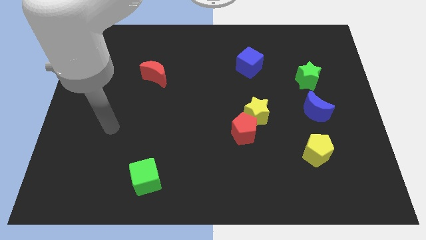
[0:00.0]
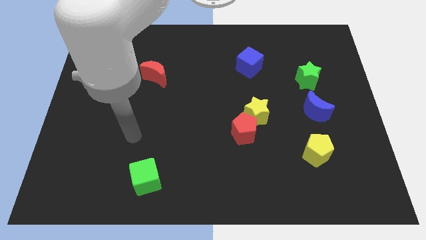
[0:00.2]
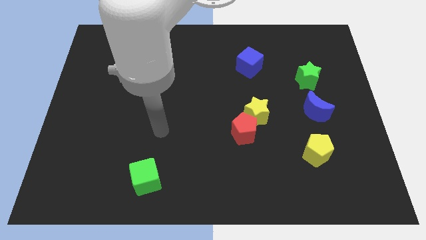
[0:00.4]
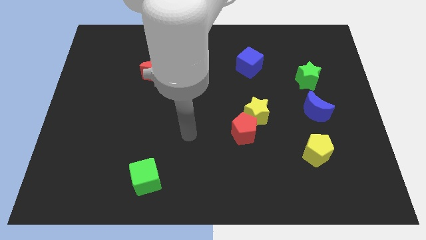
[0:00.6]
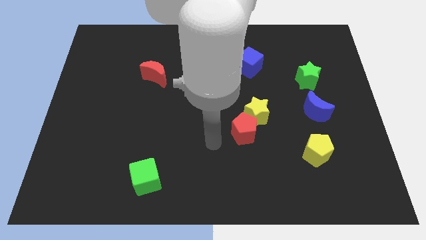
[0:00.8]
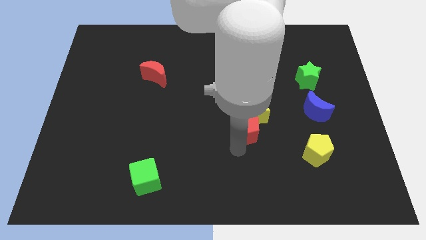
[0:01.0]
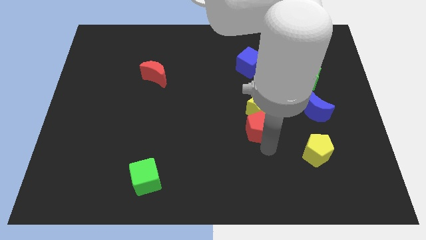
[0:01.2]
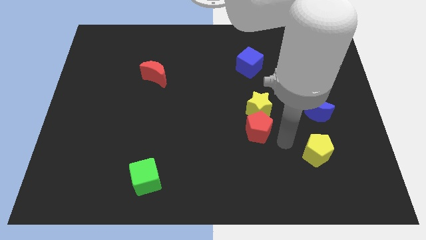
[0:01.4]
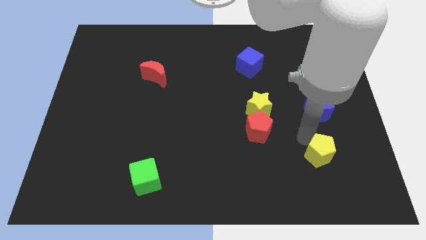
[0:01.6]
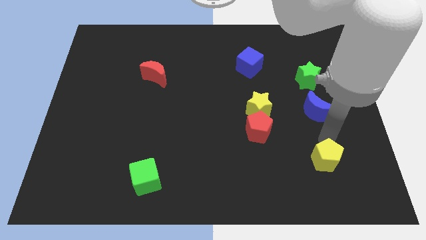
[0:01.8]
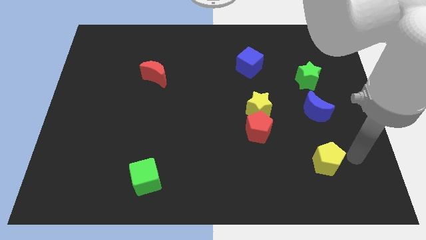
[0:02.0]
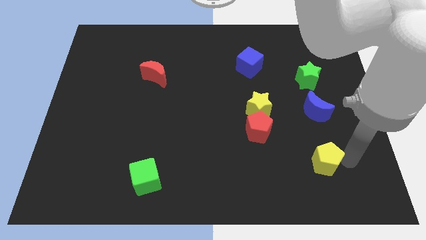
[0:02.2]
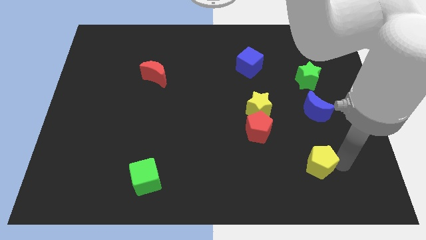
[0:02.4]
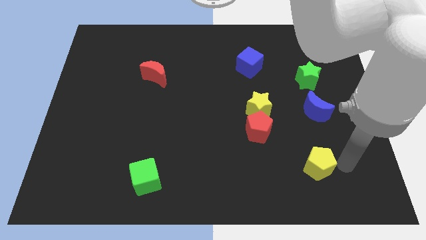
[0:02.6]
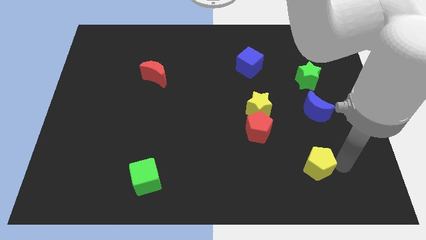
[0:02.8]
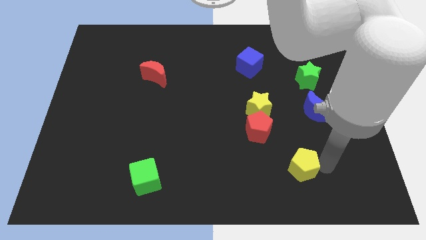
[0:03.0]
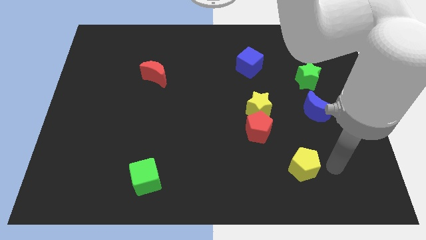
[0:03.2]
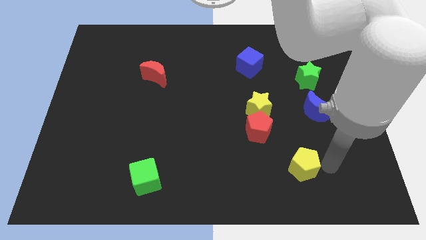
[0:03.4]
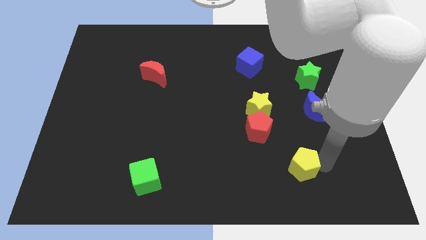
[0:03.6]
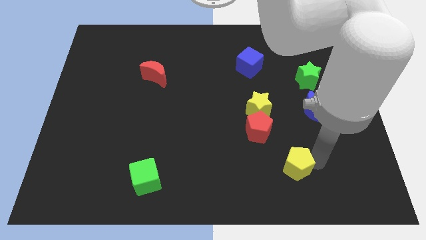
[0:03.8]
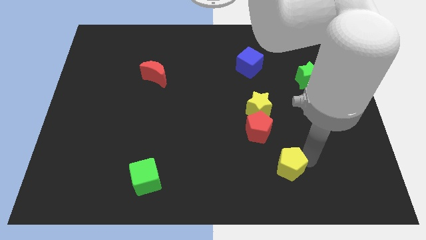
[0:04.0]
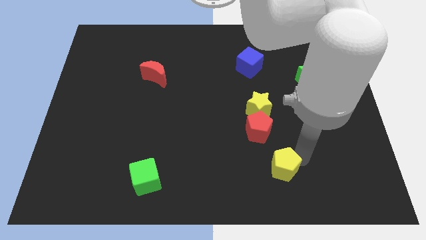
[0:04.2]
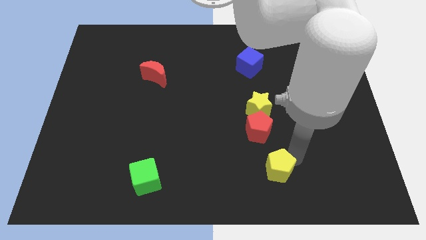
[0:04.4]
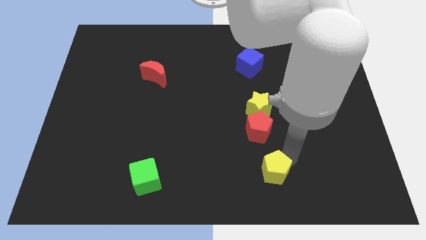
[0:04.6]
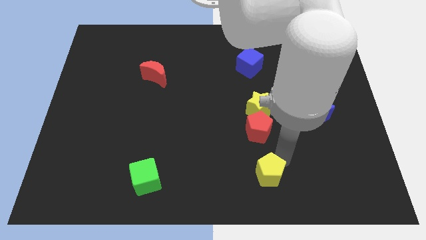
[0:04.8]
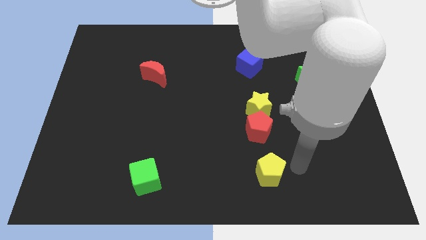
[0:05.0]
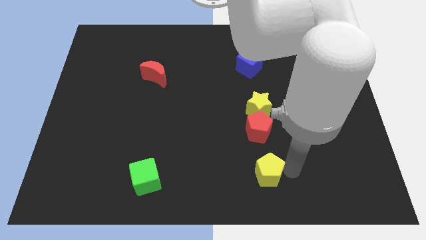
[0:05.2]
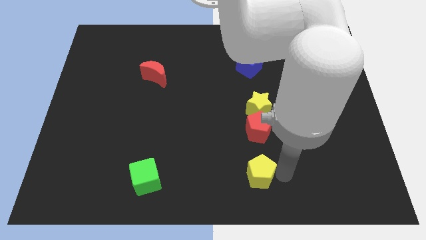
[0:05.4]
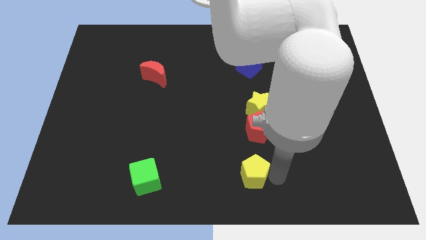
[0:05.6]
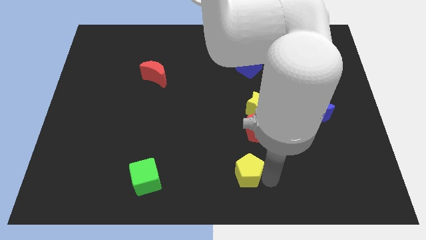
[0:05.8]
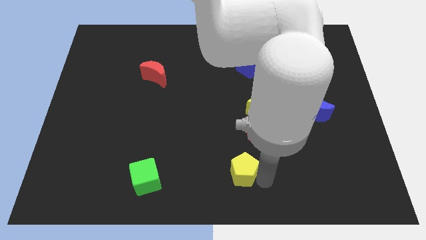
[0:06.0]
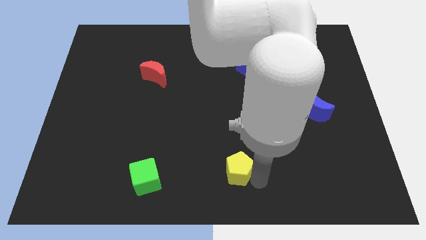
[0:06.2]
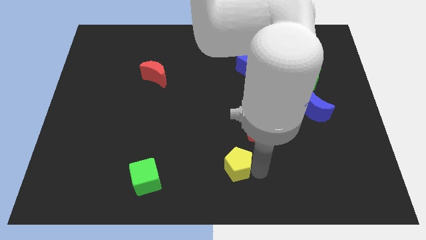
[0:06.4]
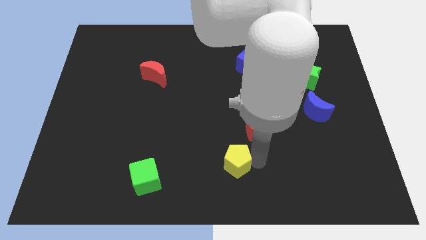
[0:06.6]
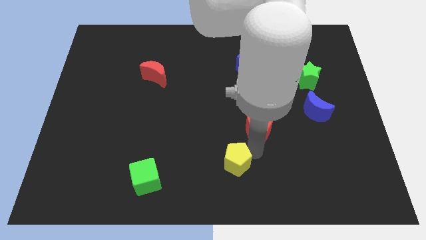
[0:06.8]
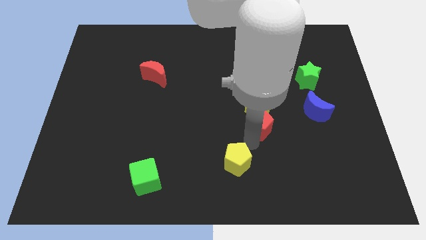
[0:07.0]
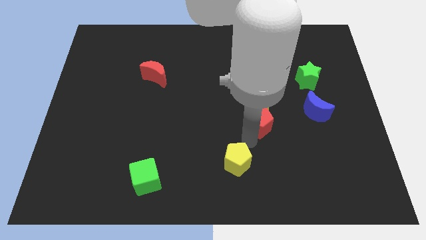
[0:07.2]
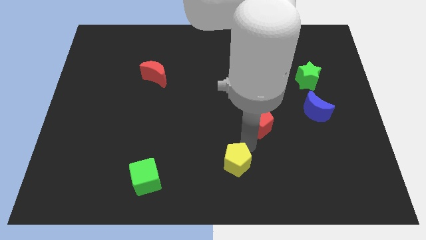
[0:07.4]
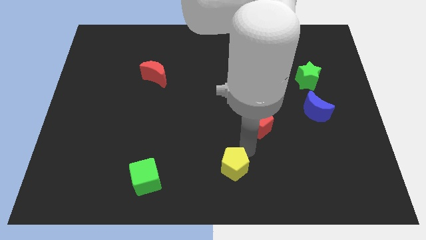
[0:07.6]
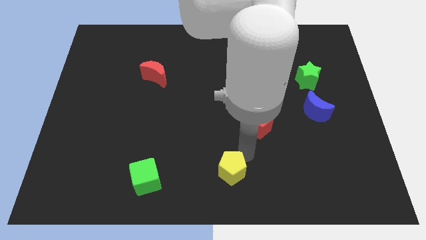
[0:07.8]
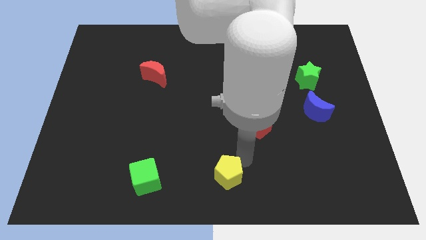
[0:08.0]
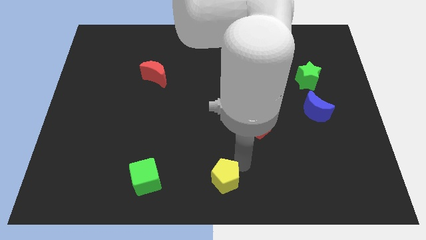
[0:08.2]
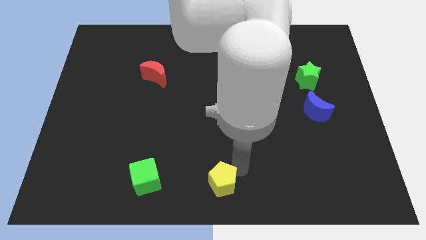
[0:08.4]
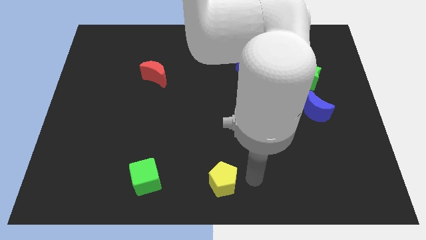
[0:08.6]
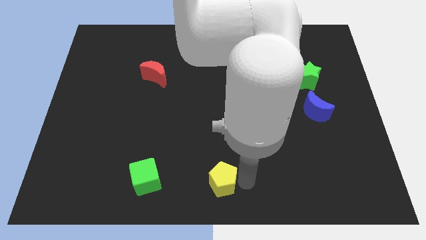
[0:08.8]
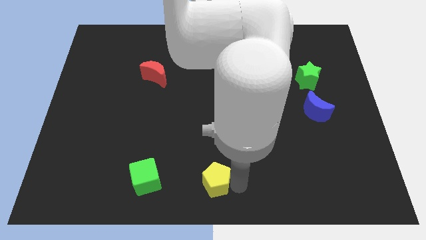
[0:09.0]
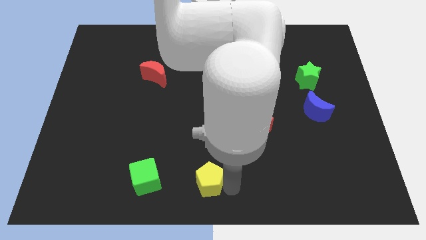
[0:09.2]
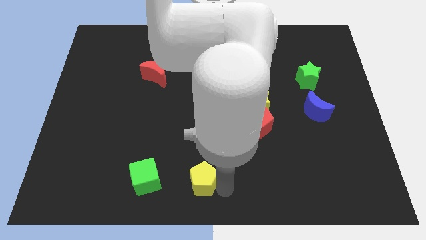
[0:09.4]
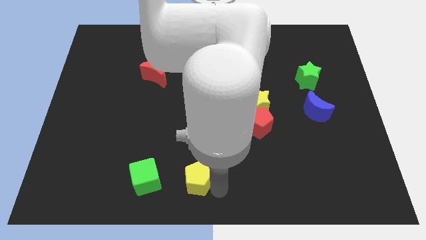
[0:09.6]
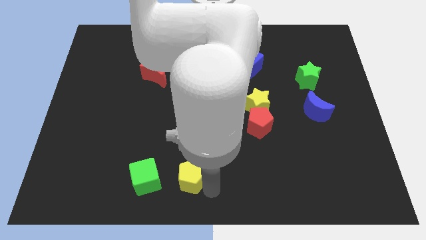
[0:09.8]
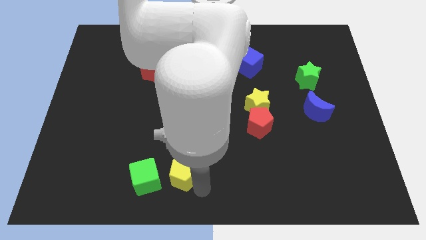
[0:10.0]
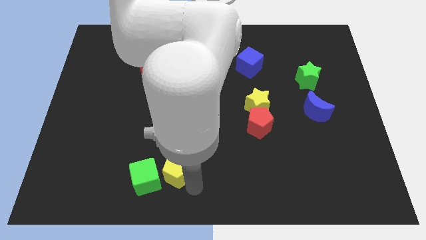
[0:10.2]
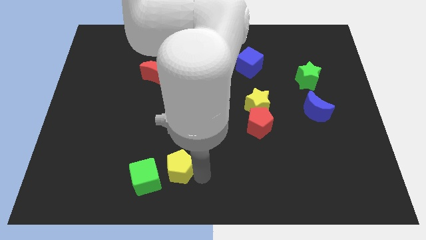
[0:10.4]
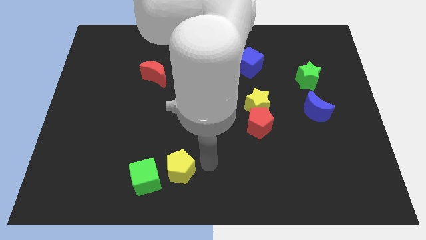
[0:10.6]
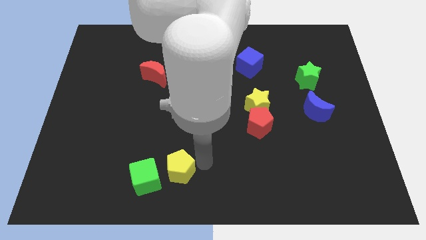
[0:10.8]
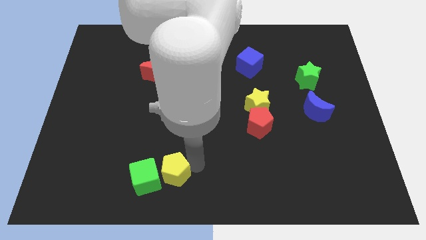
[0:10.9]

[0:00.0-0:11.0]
put the yellow pentagon to the green cube

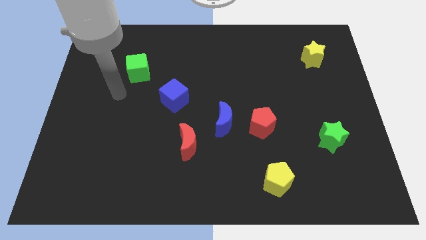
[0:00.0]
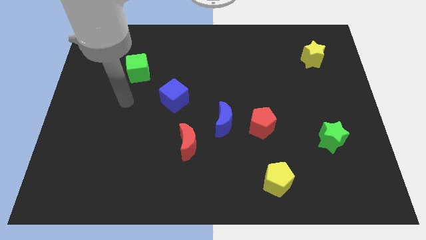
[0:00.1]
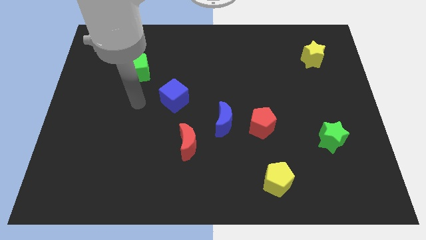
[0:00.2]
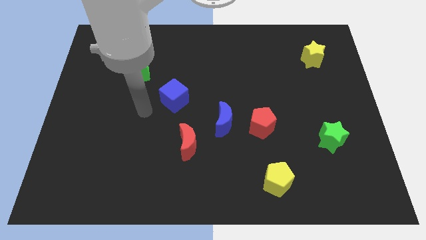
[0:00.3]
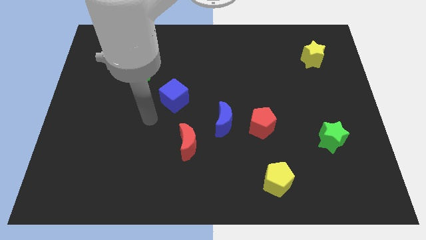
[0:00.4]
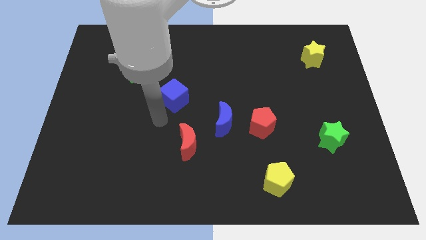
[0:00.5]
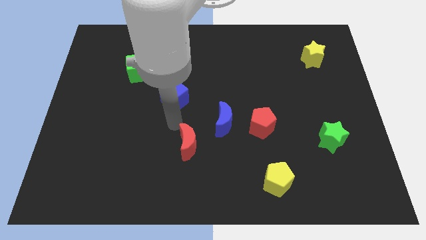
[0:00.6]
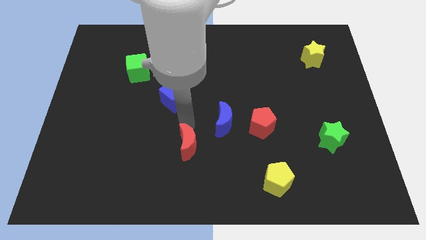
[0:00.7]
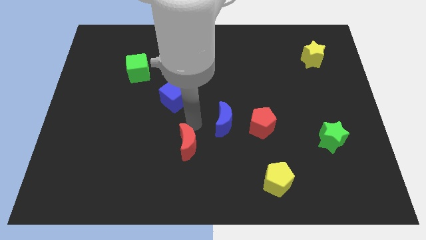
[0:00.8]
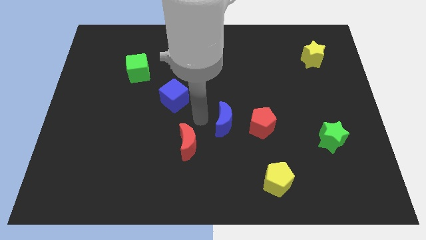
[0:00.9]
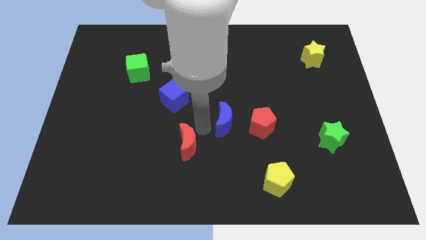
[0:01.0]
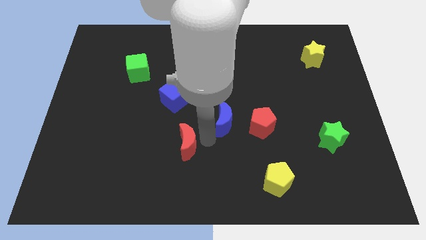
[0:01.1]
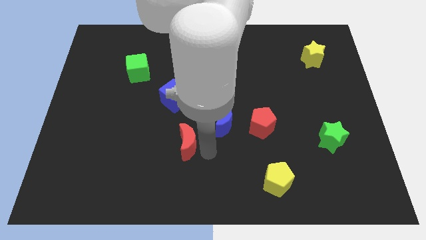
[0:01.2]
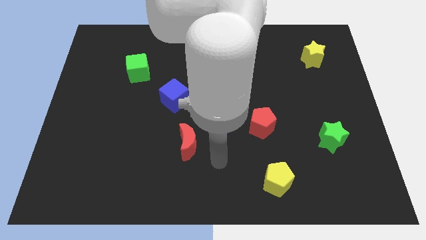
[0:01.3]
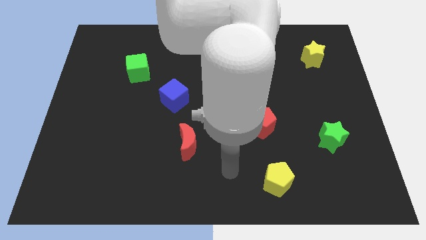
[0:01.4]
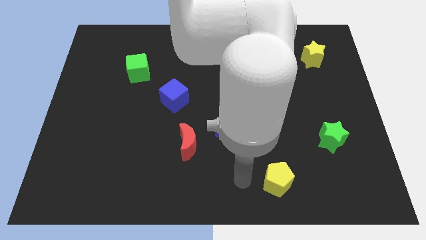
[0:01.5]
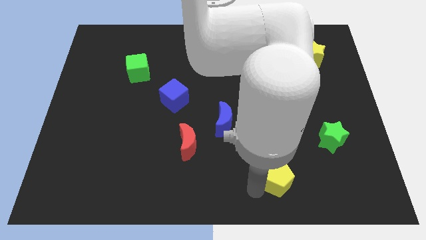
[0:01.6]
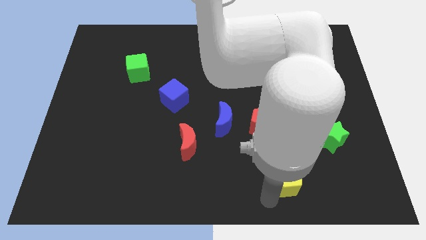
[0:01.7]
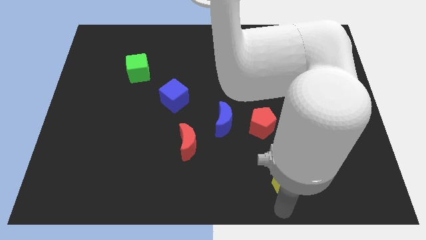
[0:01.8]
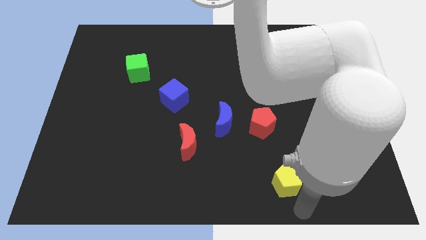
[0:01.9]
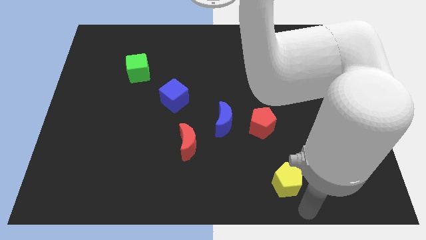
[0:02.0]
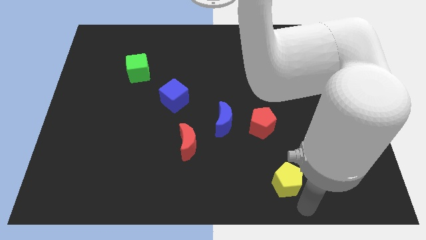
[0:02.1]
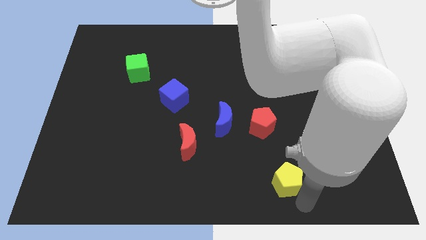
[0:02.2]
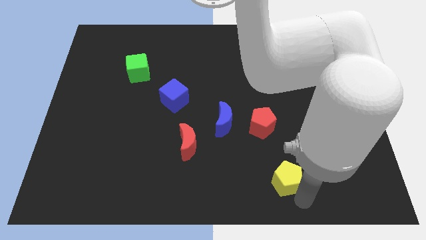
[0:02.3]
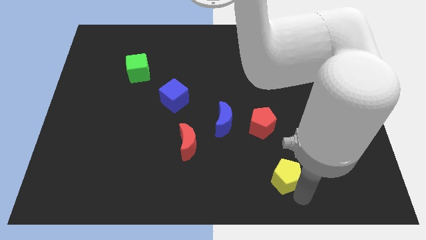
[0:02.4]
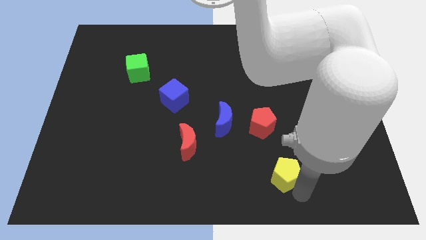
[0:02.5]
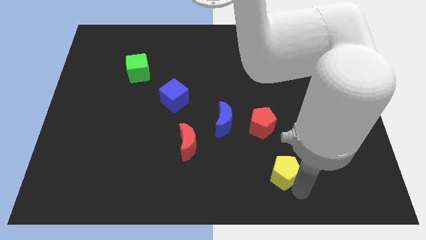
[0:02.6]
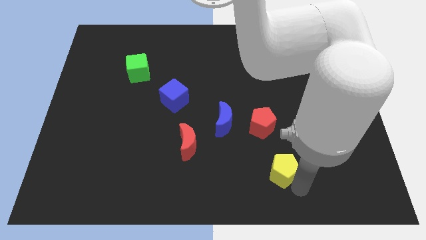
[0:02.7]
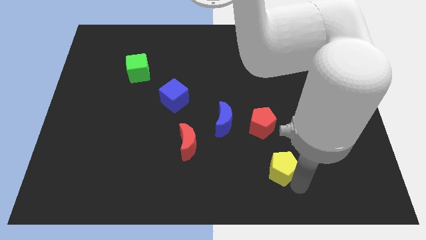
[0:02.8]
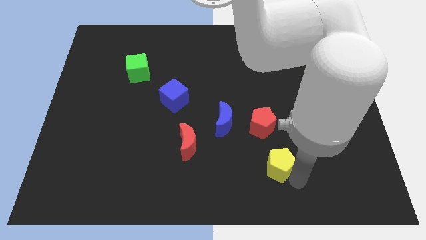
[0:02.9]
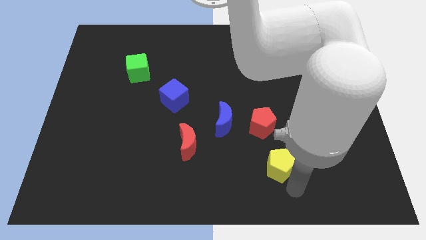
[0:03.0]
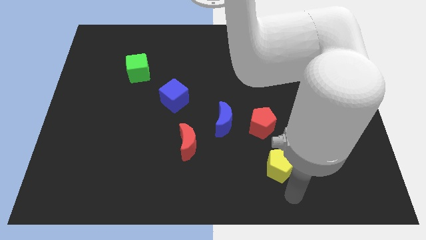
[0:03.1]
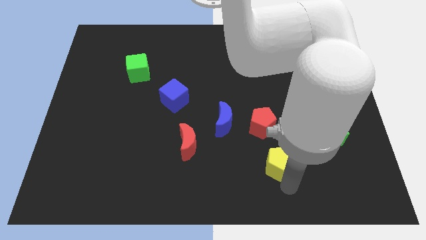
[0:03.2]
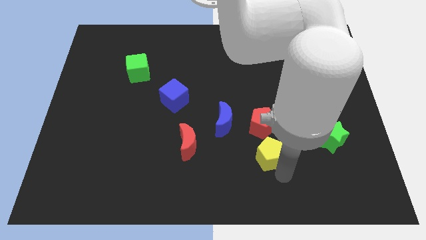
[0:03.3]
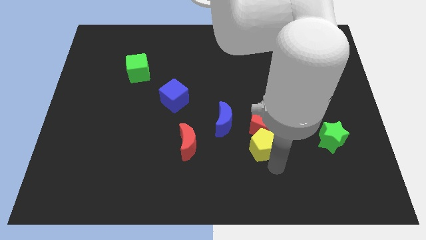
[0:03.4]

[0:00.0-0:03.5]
push the yellow pentagon close to the red pentagon
